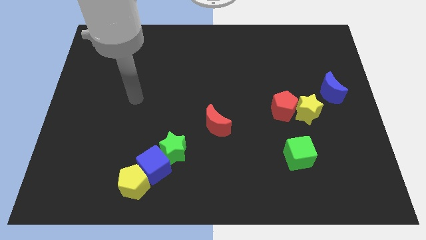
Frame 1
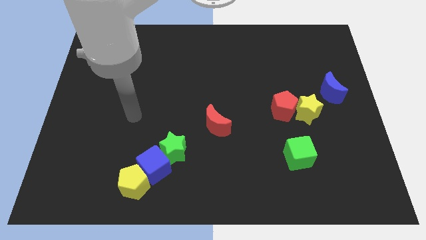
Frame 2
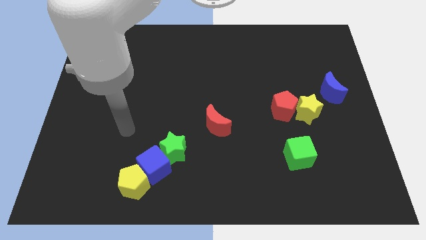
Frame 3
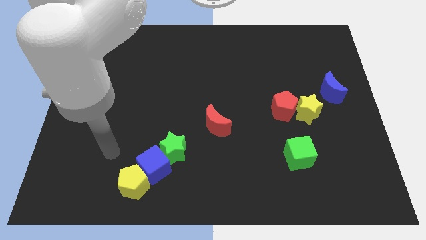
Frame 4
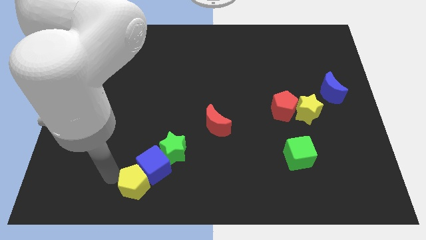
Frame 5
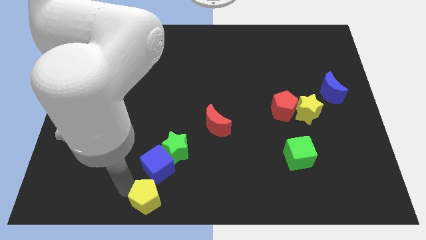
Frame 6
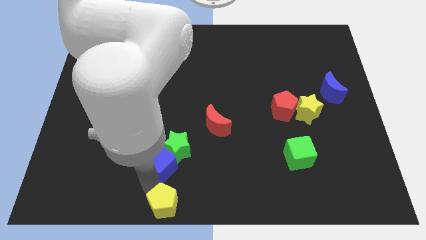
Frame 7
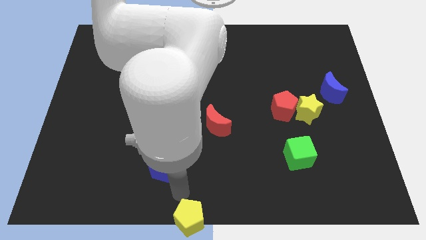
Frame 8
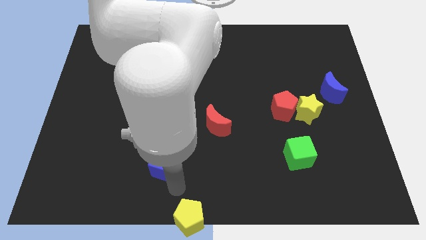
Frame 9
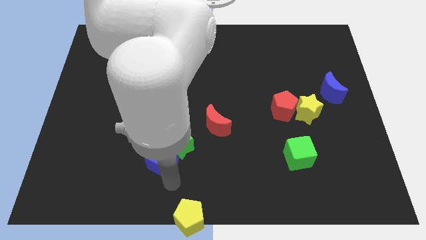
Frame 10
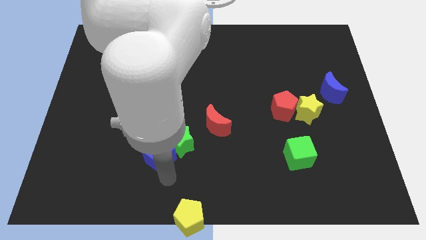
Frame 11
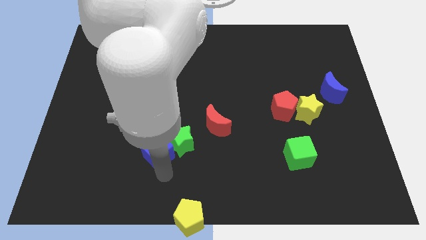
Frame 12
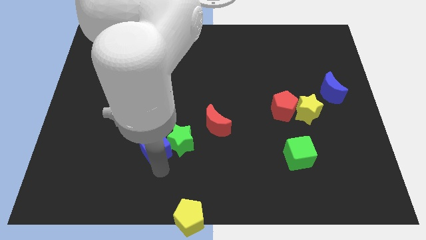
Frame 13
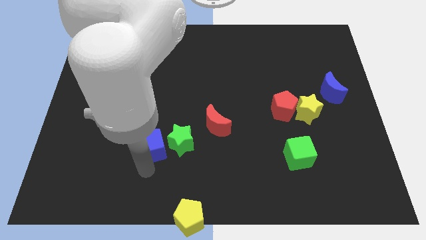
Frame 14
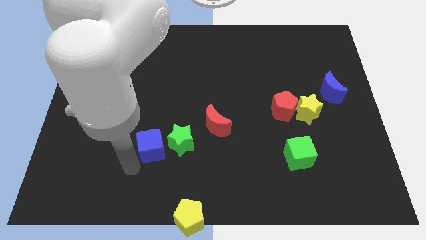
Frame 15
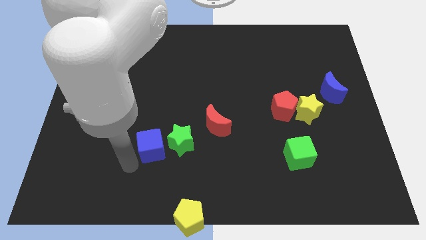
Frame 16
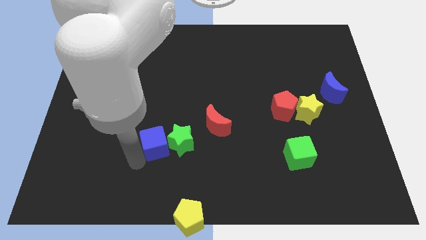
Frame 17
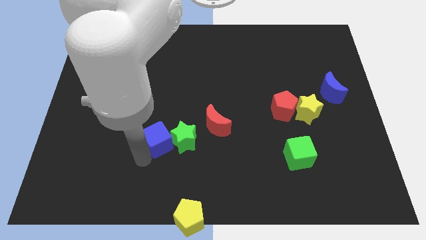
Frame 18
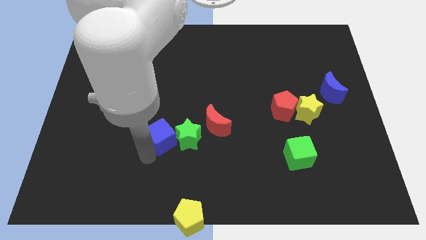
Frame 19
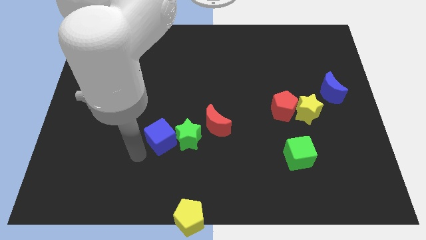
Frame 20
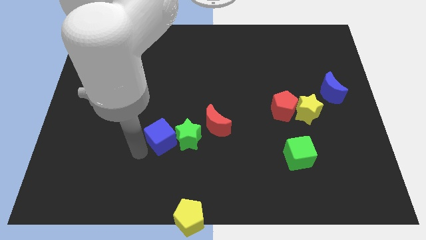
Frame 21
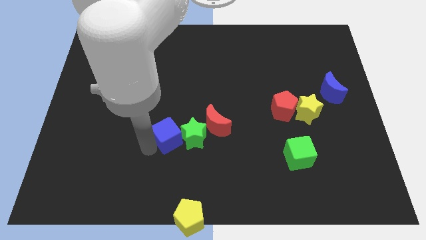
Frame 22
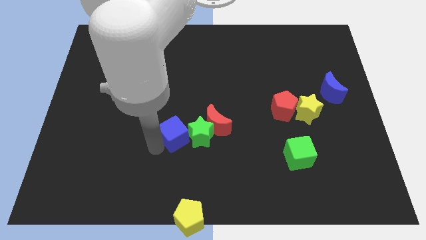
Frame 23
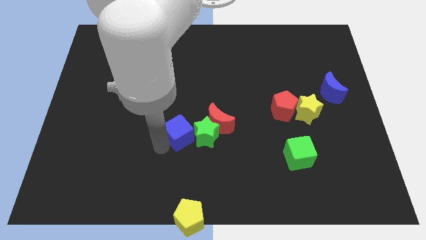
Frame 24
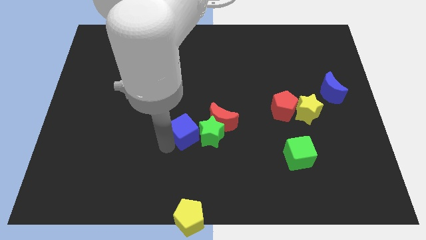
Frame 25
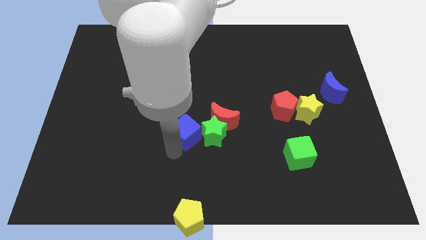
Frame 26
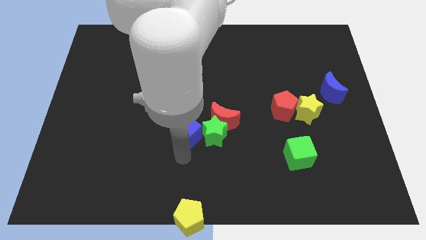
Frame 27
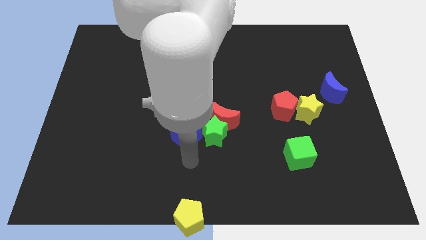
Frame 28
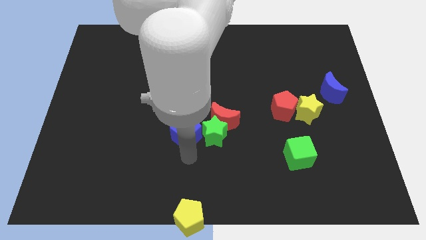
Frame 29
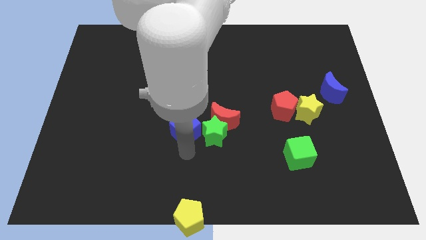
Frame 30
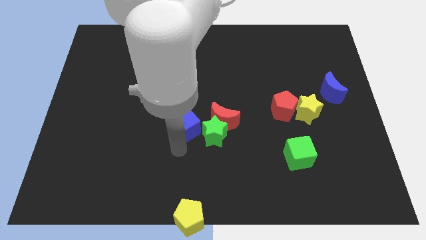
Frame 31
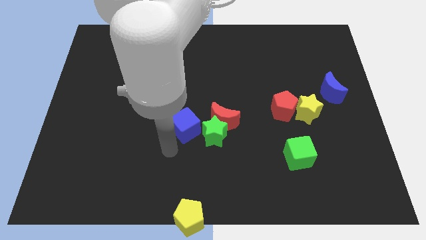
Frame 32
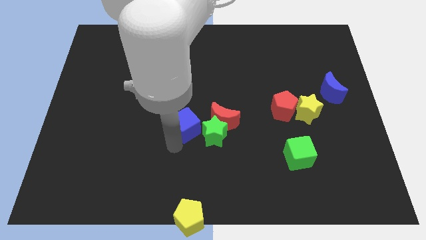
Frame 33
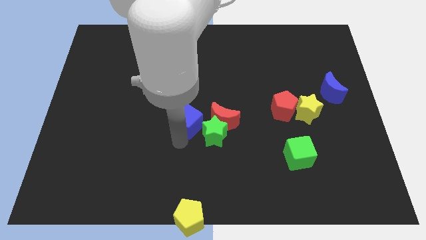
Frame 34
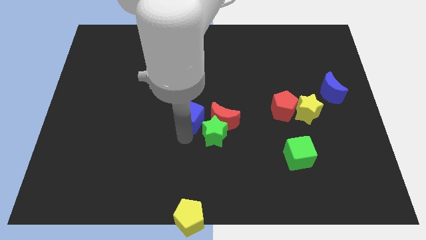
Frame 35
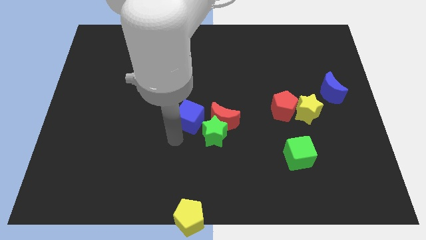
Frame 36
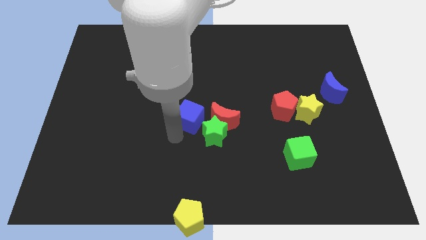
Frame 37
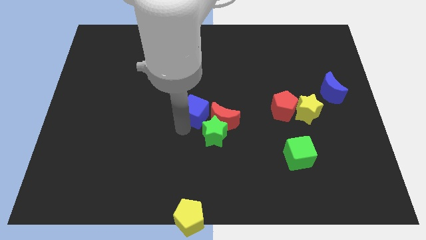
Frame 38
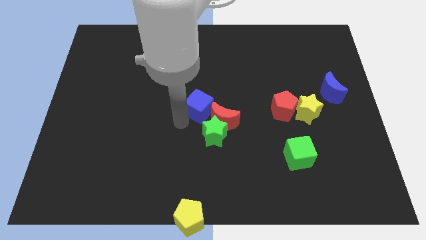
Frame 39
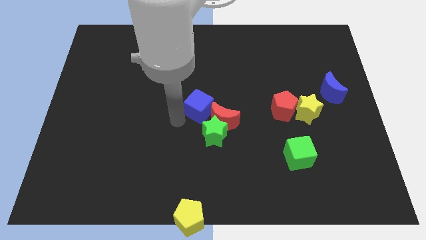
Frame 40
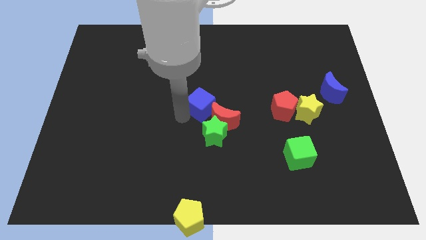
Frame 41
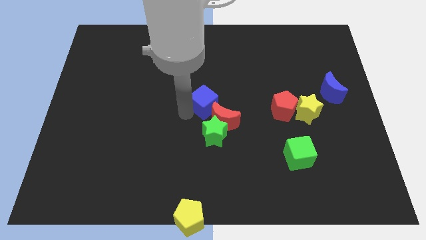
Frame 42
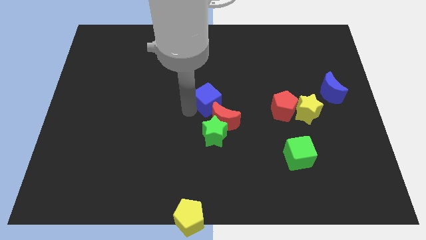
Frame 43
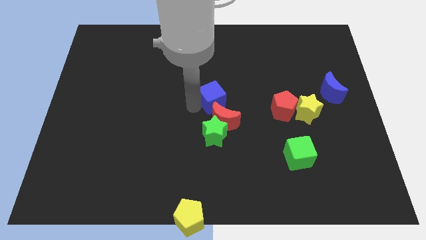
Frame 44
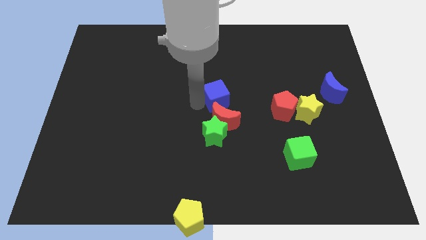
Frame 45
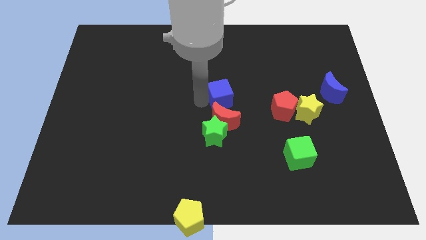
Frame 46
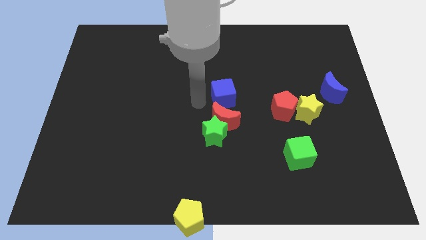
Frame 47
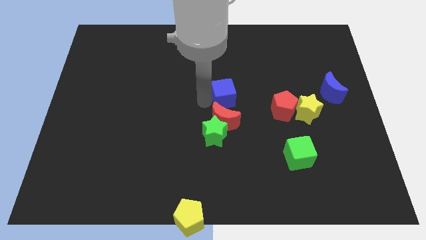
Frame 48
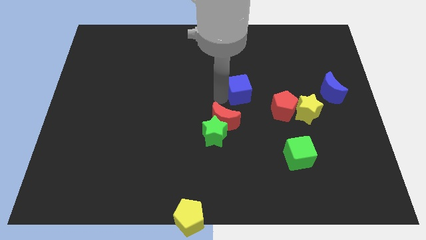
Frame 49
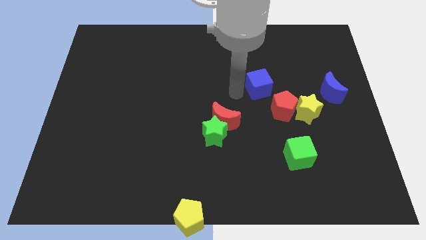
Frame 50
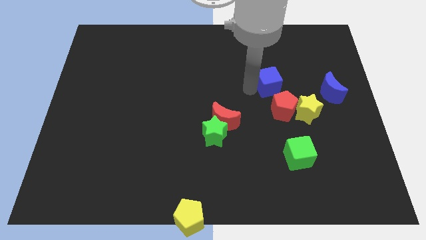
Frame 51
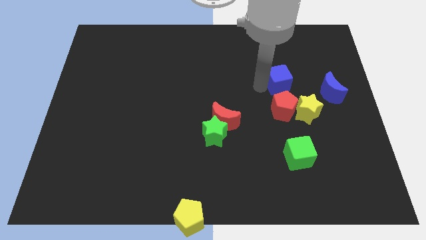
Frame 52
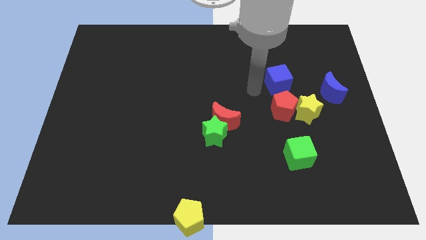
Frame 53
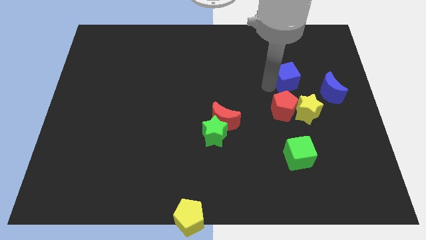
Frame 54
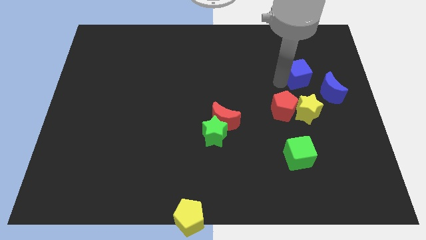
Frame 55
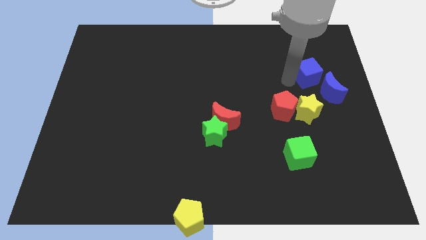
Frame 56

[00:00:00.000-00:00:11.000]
push the blue cube above the blue moon

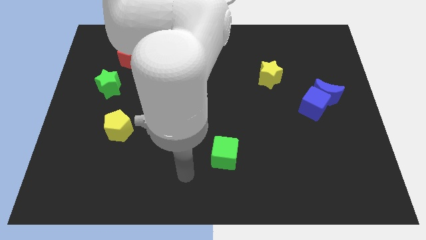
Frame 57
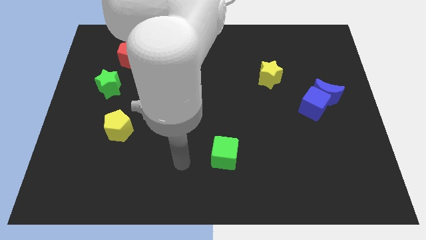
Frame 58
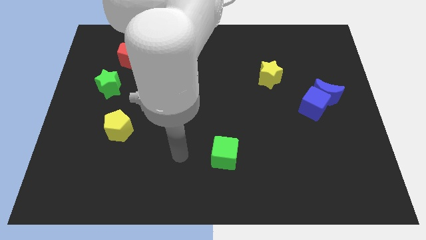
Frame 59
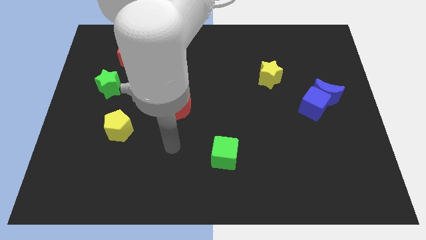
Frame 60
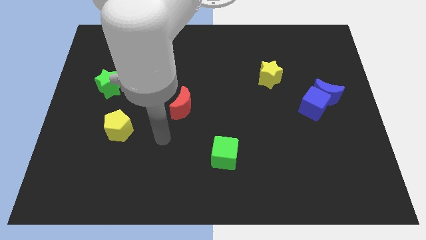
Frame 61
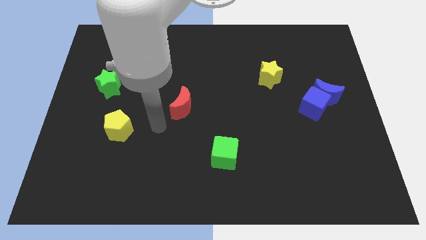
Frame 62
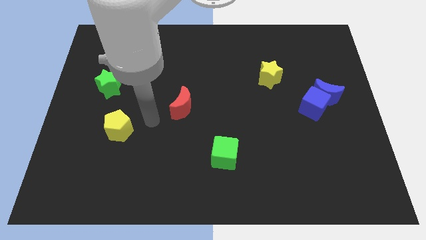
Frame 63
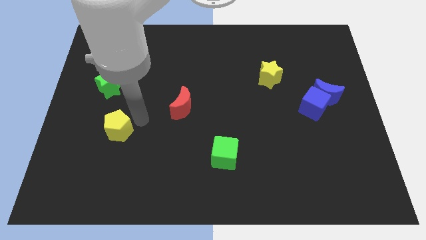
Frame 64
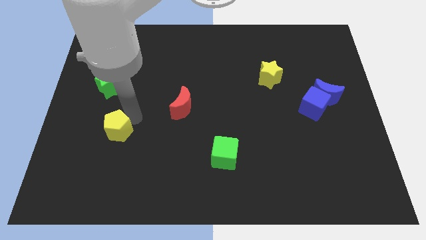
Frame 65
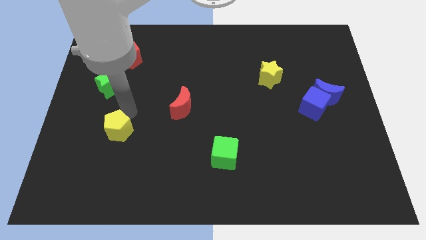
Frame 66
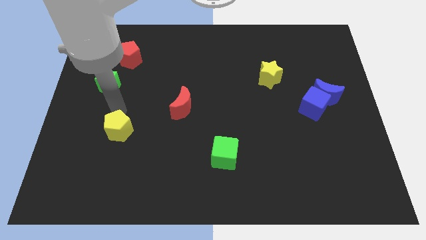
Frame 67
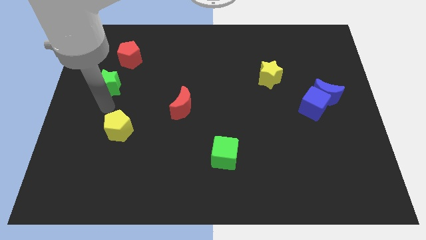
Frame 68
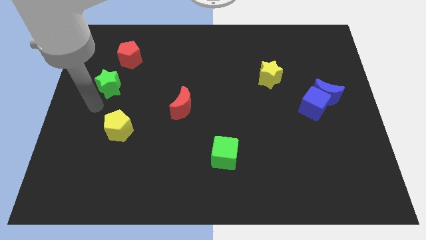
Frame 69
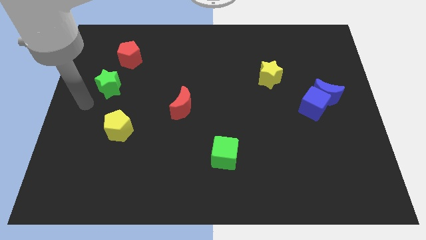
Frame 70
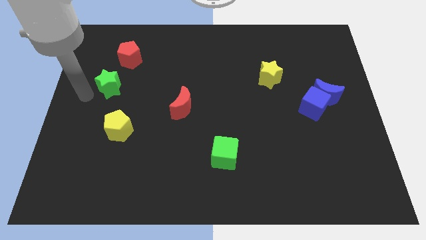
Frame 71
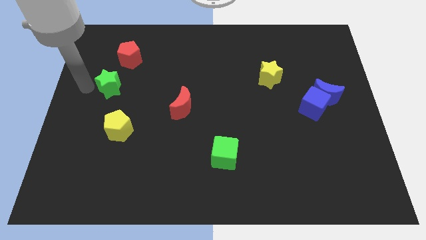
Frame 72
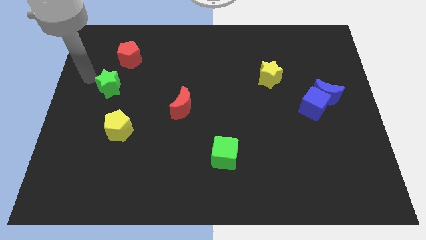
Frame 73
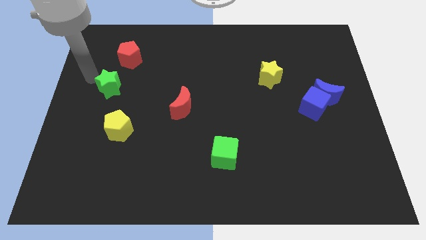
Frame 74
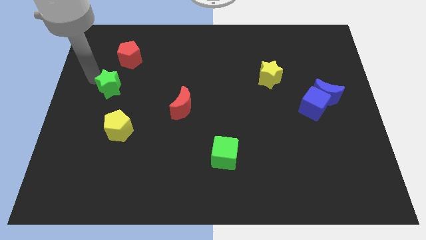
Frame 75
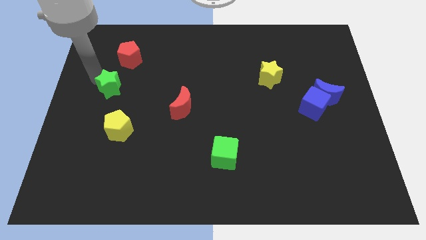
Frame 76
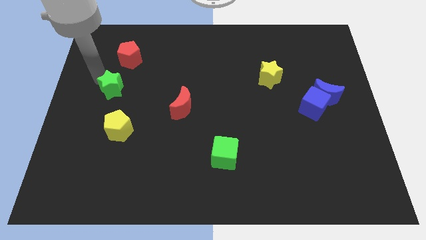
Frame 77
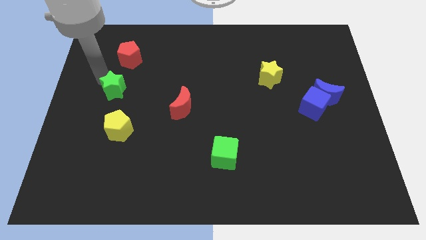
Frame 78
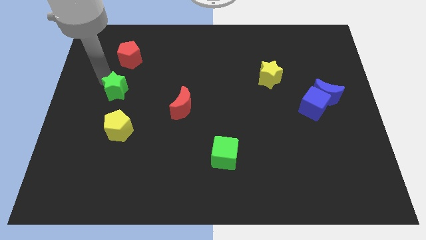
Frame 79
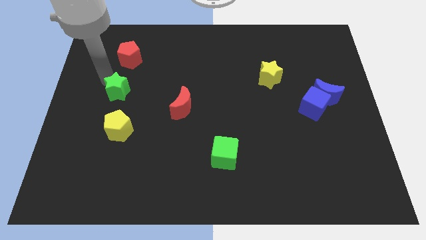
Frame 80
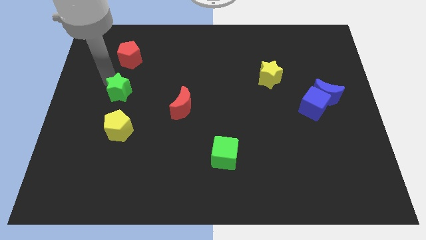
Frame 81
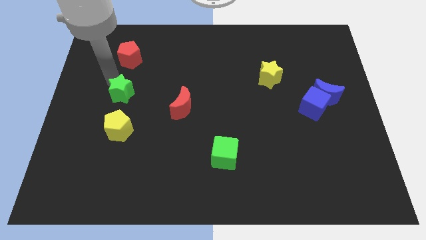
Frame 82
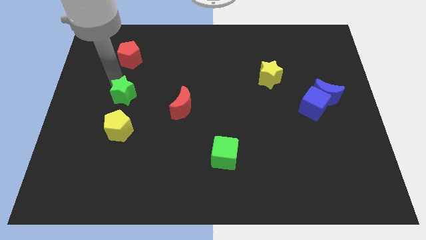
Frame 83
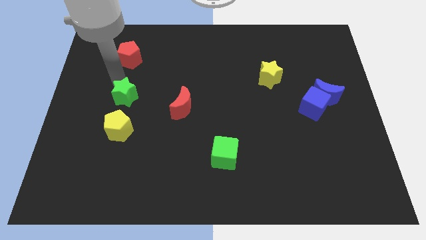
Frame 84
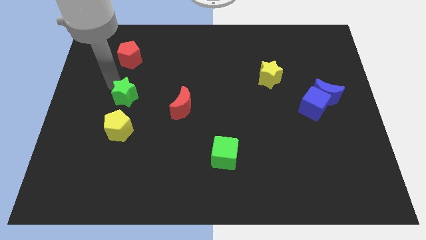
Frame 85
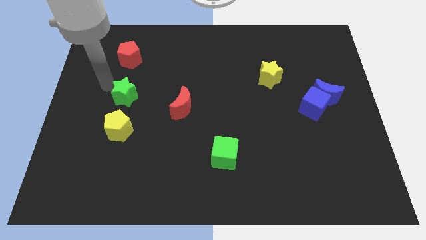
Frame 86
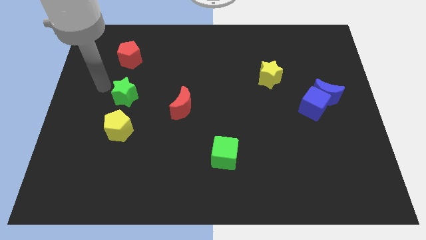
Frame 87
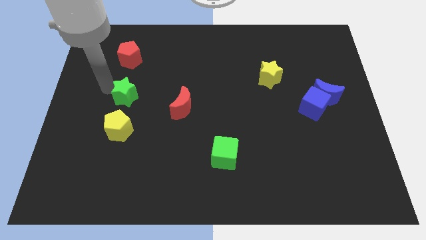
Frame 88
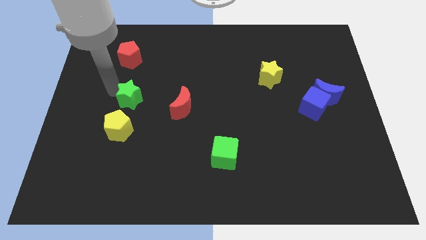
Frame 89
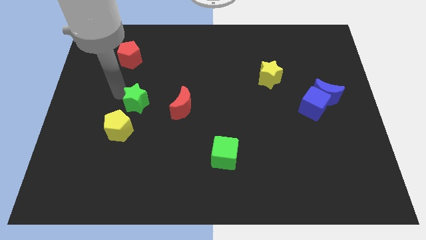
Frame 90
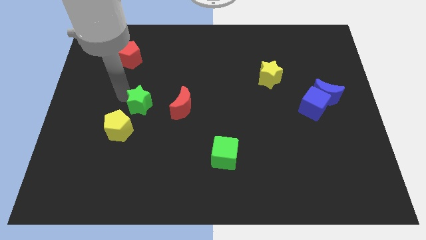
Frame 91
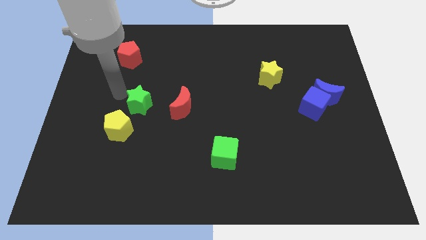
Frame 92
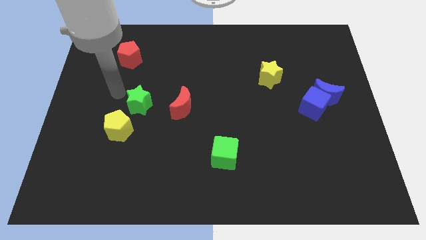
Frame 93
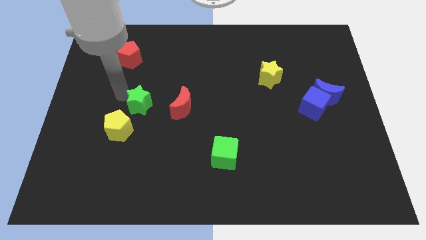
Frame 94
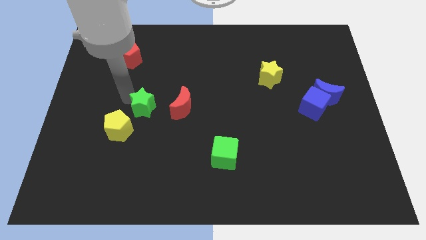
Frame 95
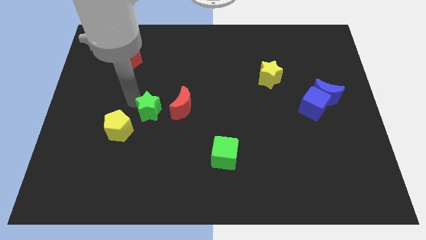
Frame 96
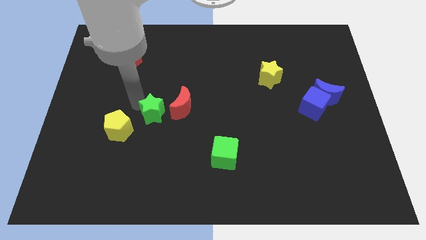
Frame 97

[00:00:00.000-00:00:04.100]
push the green star right of the yellow pentagon
